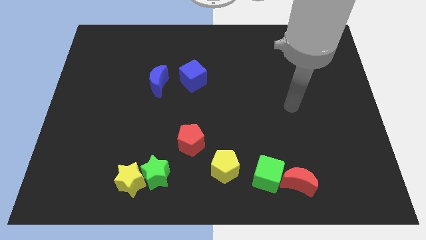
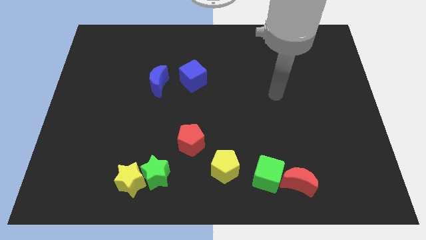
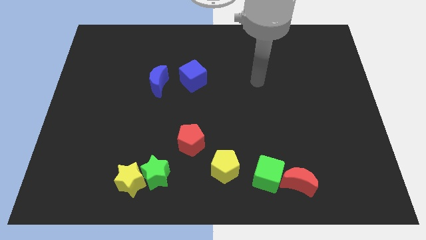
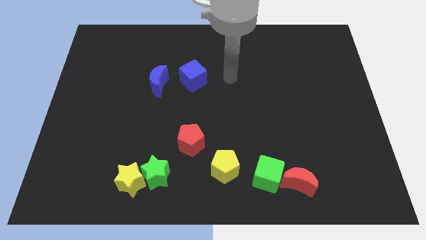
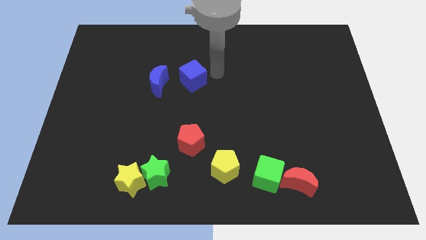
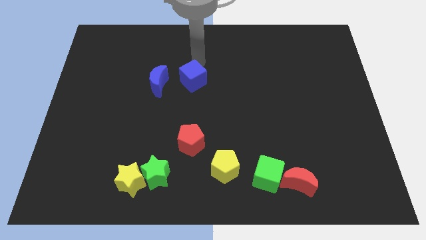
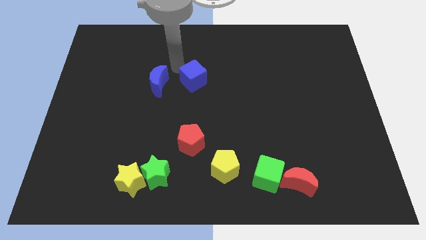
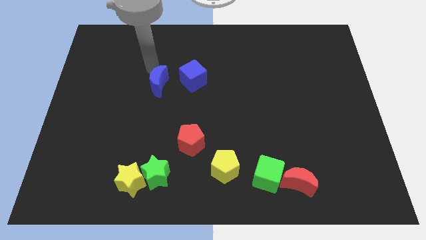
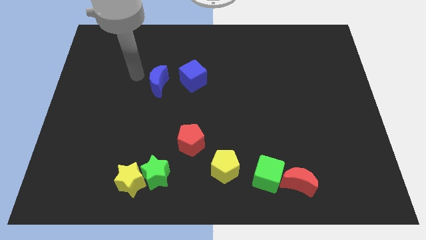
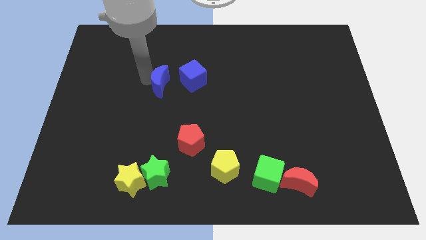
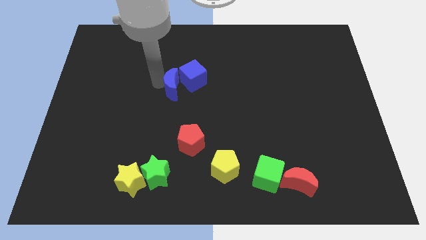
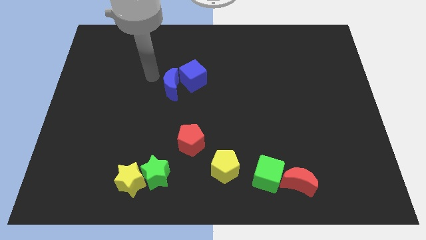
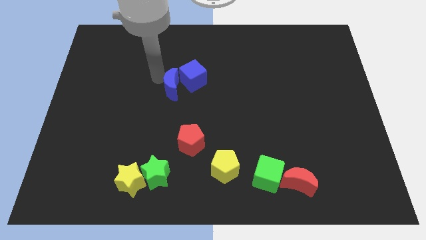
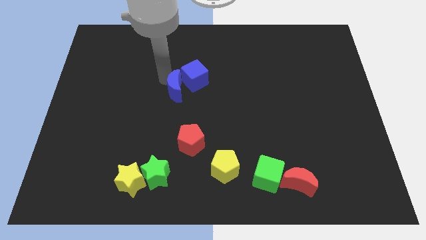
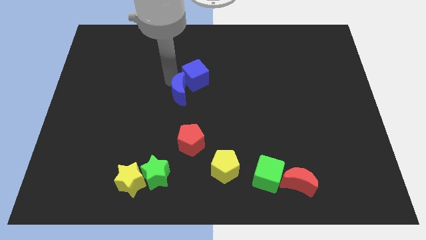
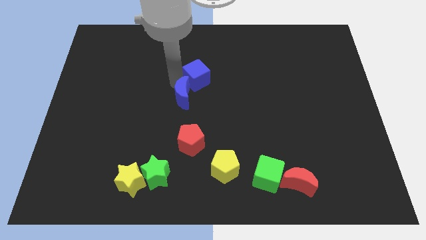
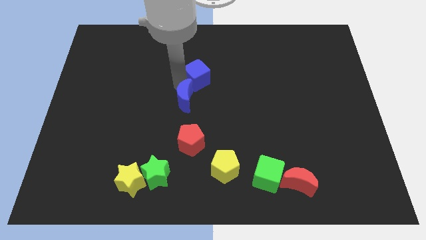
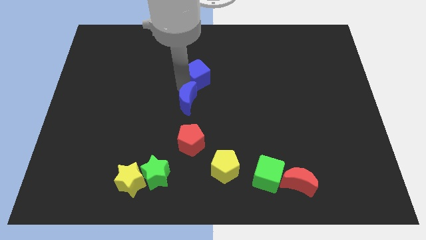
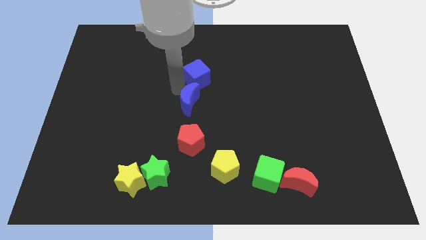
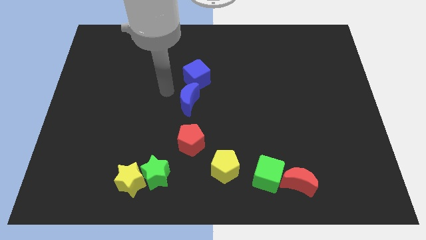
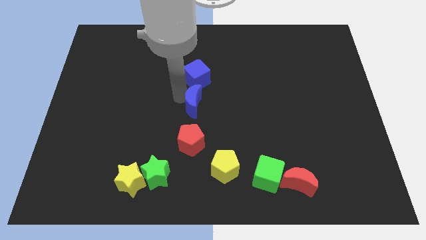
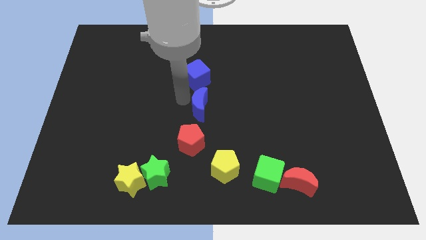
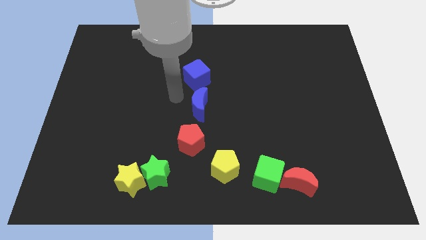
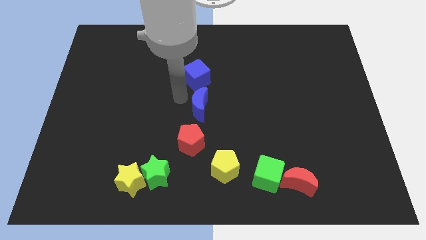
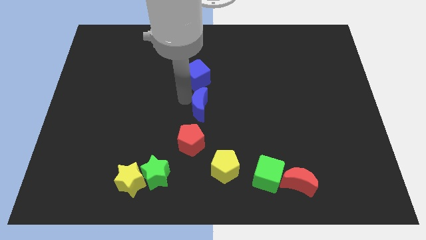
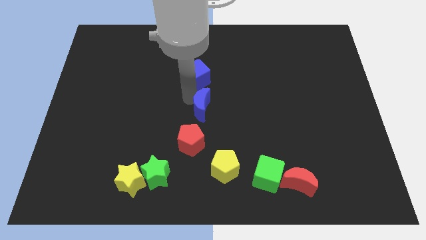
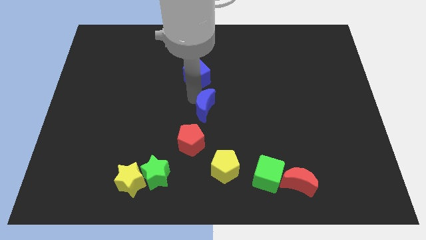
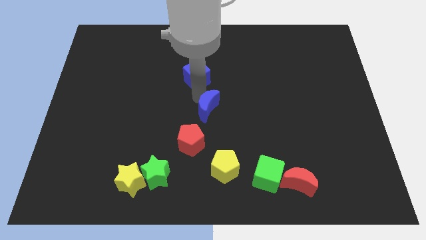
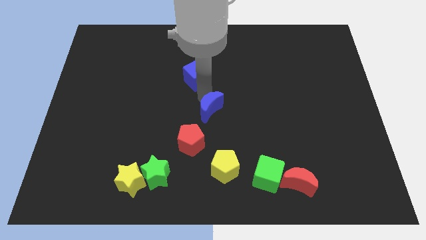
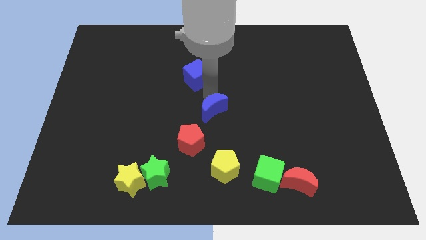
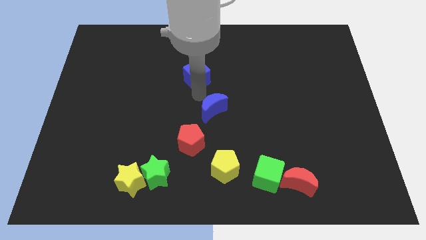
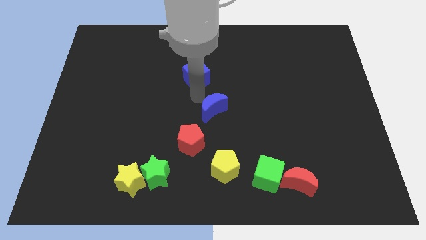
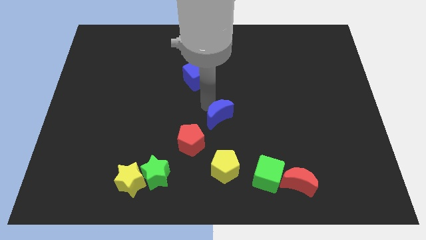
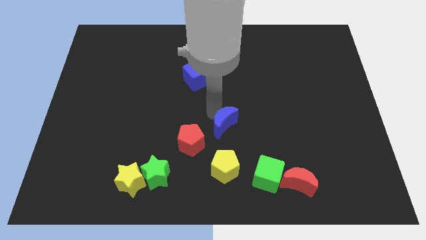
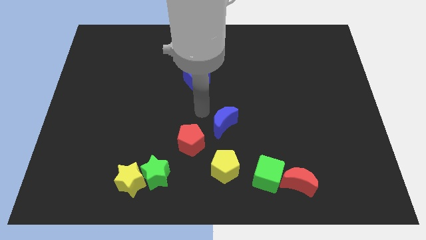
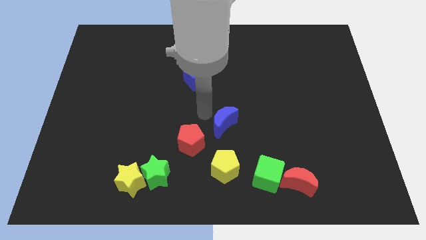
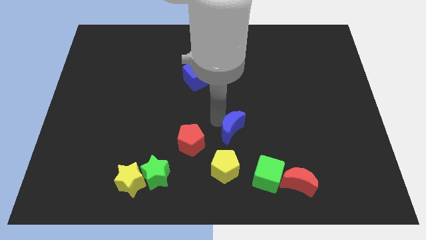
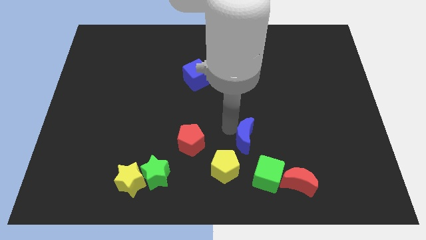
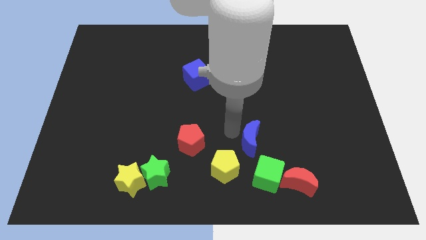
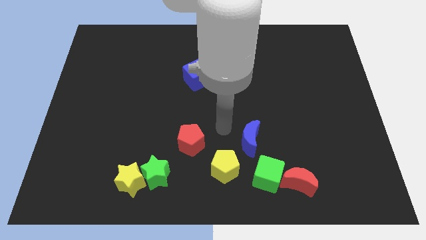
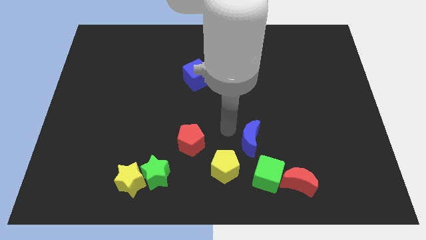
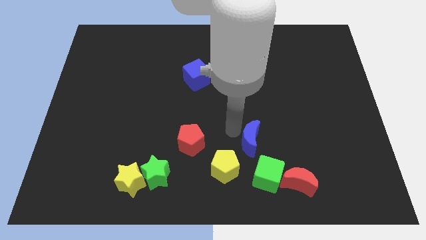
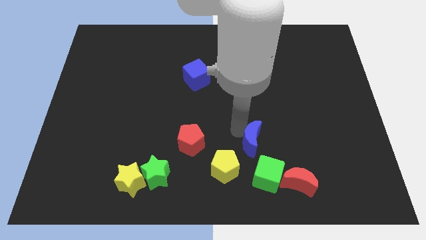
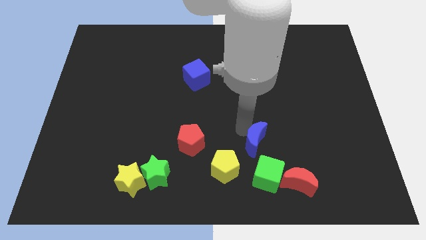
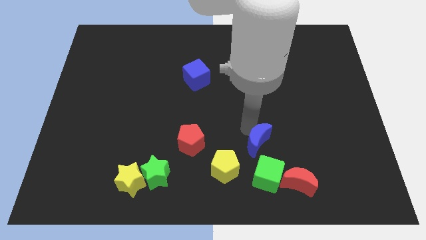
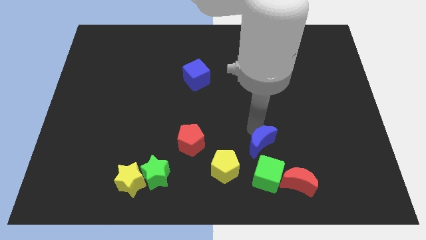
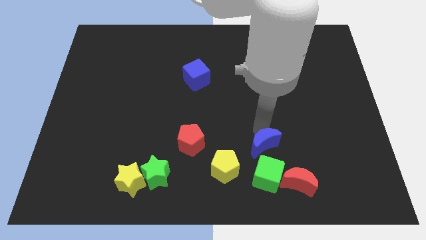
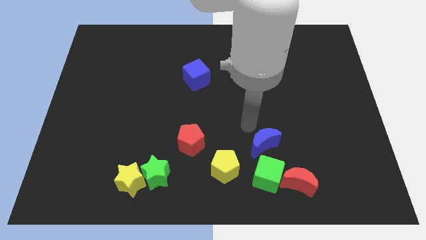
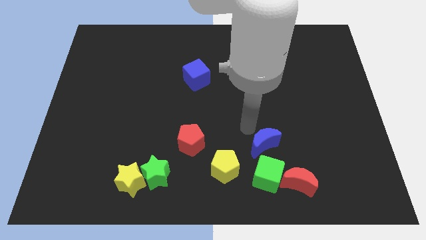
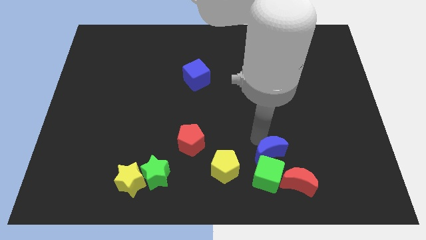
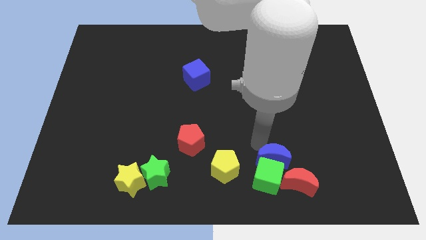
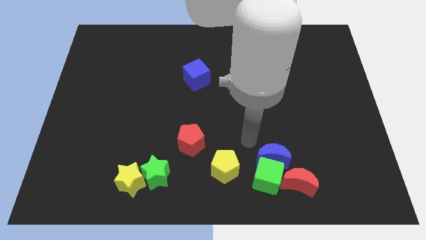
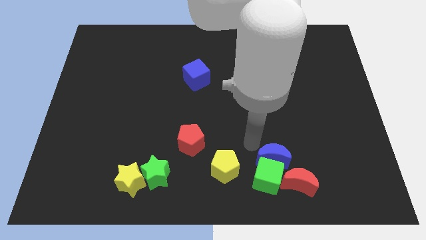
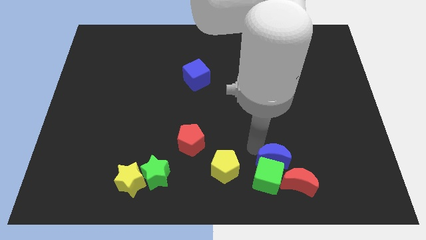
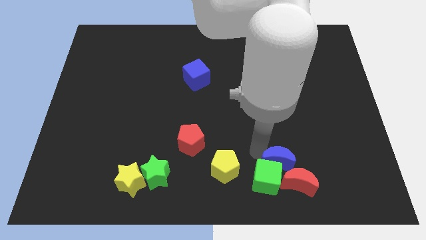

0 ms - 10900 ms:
move the blue moon to the red moon

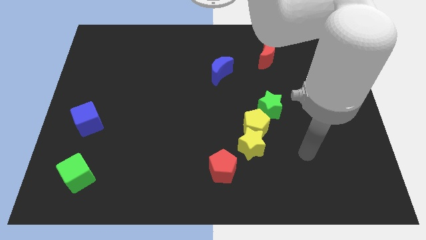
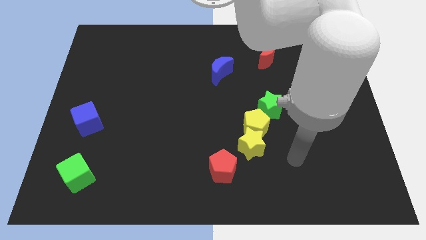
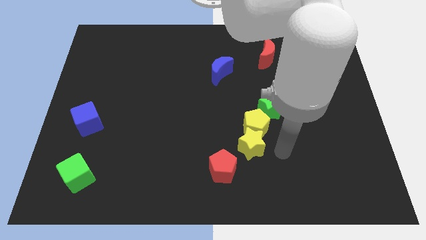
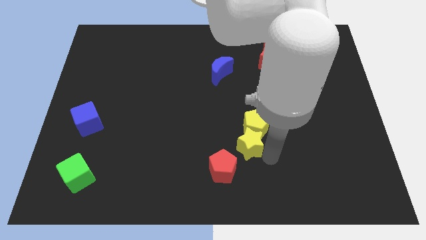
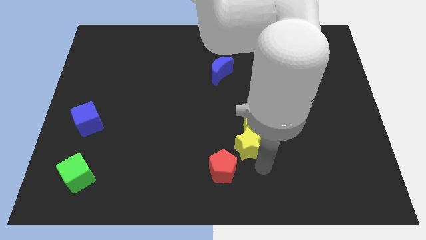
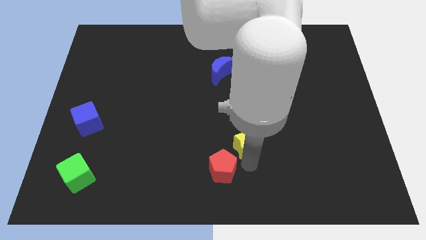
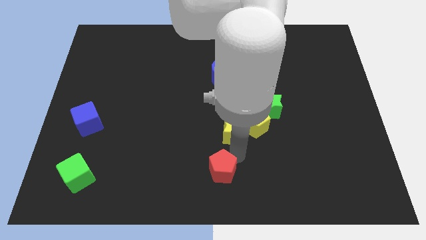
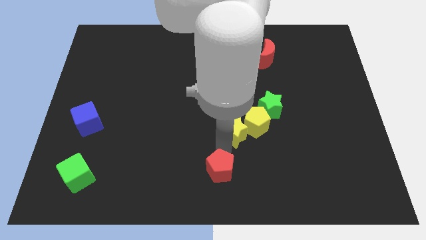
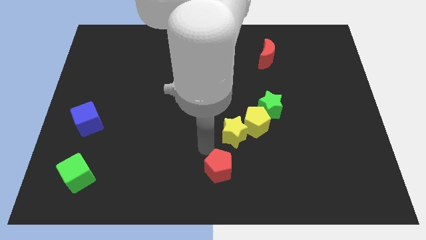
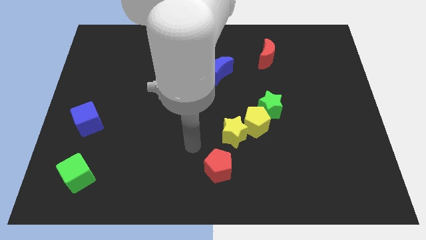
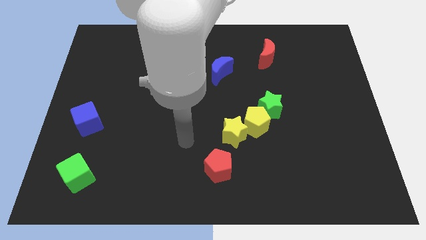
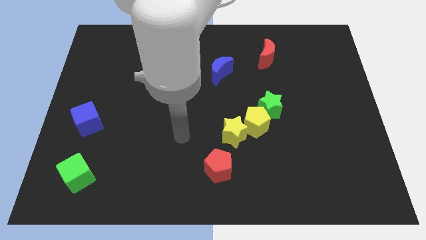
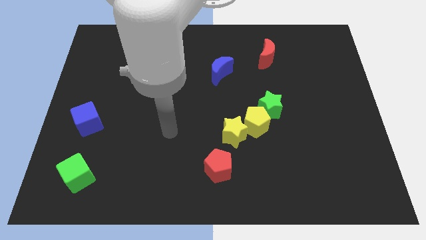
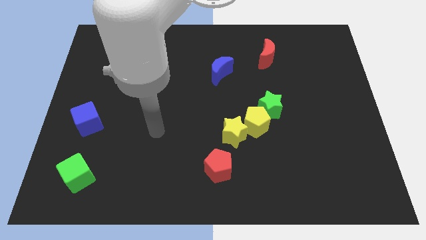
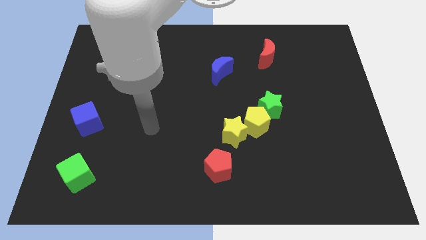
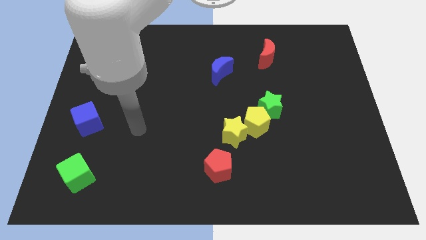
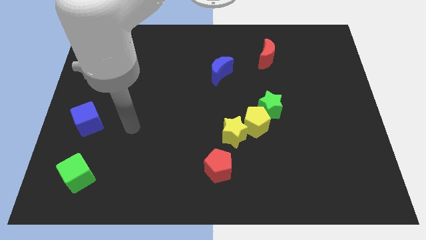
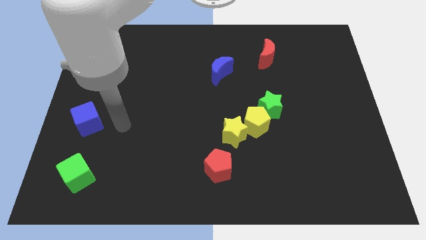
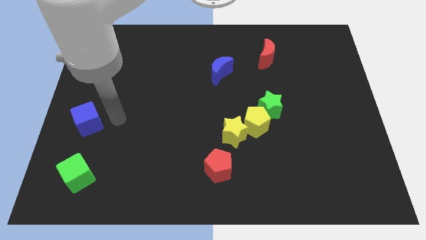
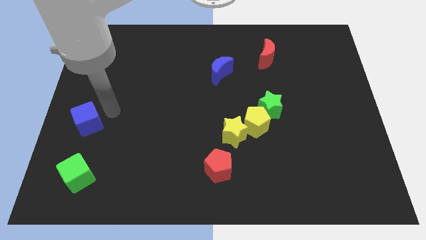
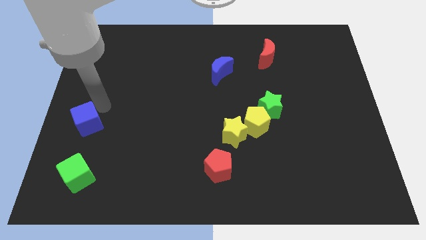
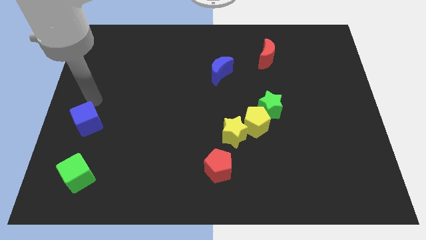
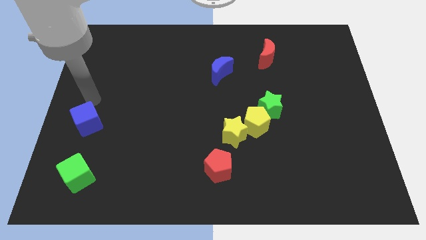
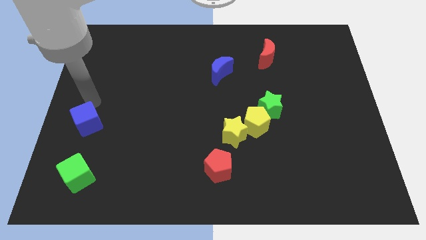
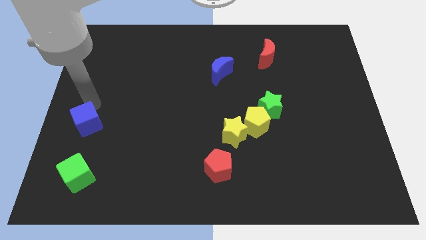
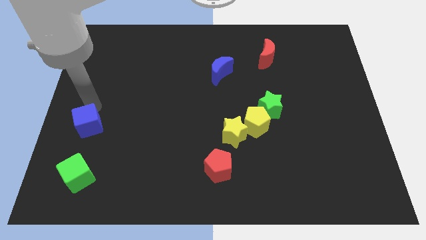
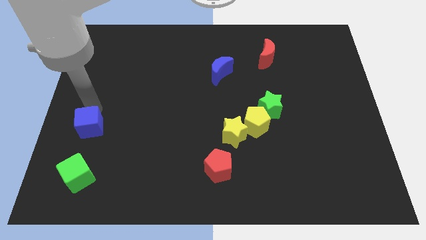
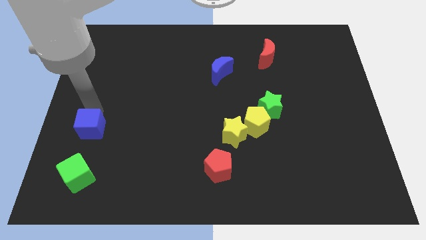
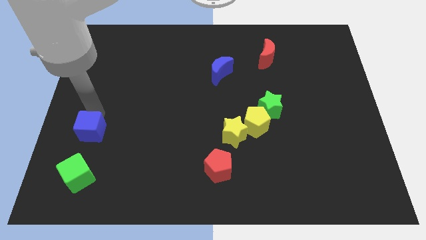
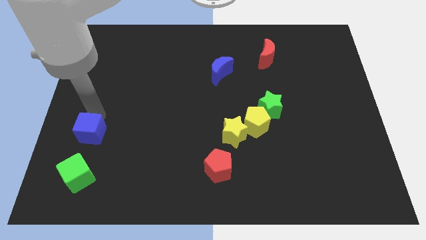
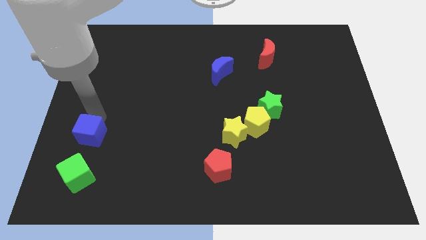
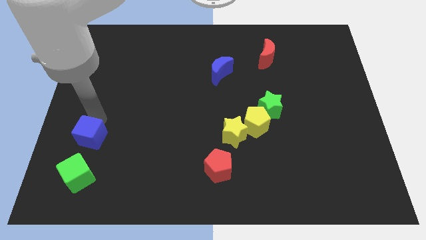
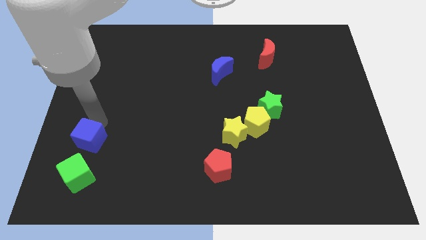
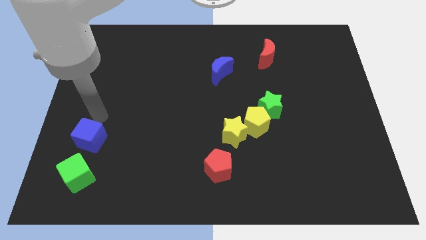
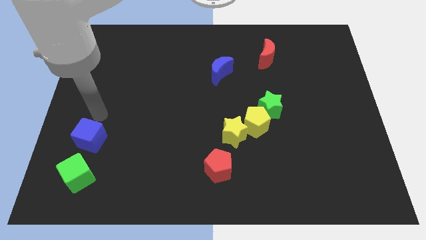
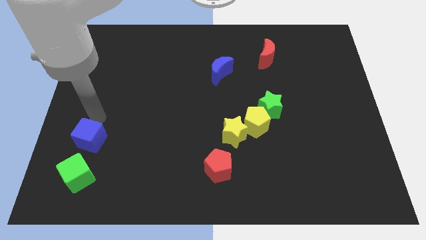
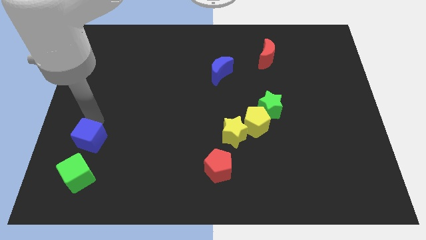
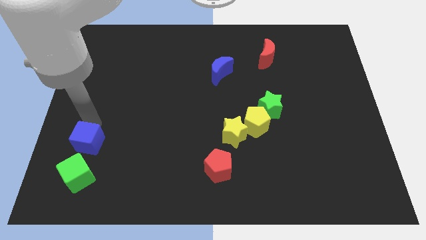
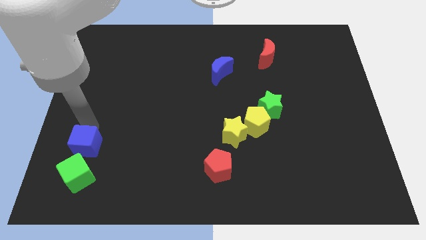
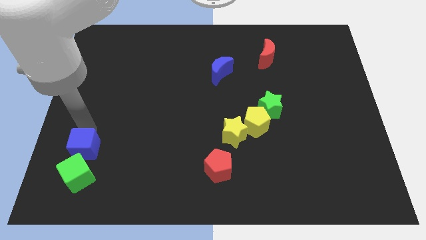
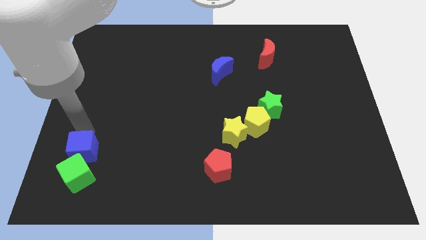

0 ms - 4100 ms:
slide the blue cube towards the green cube
